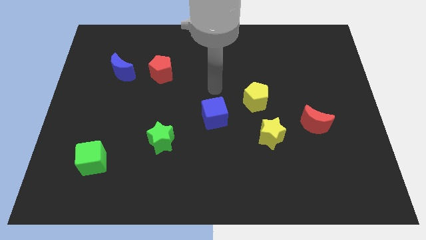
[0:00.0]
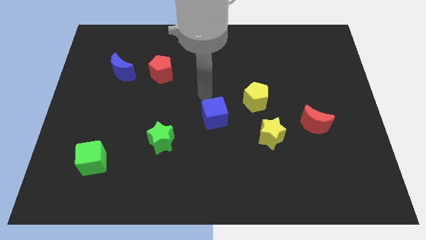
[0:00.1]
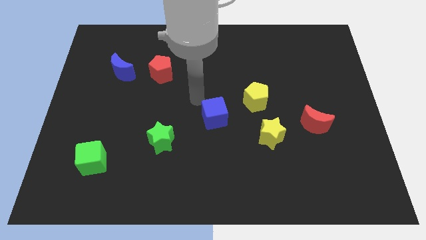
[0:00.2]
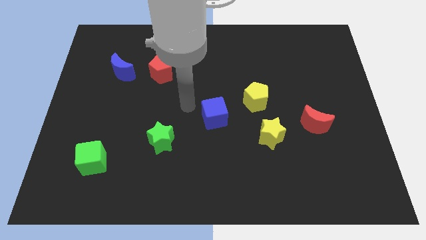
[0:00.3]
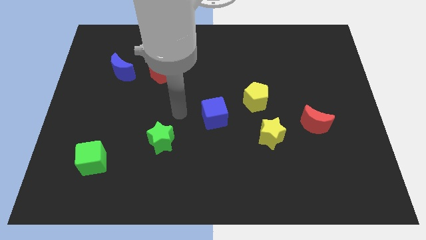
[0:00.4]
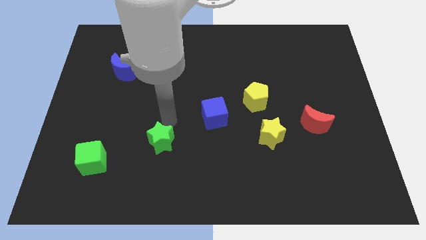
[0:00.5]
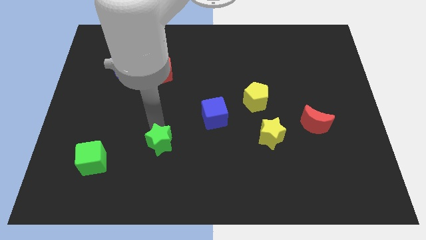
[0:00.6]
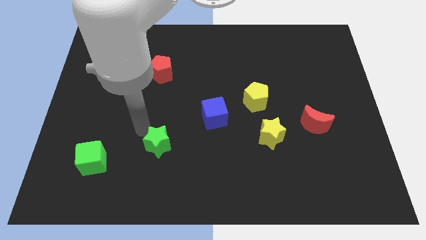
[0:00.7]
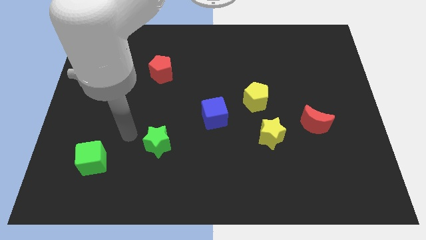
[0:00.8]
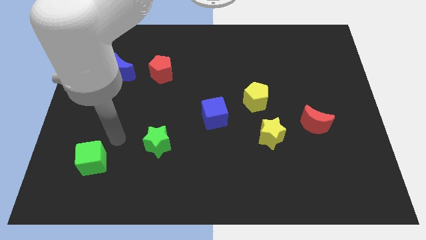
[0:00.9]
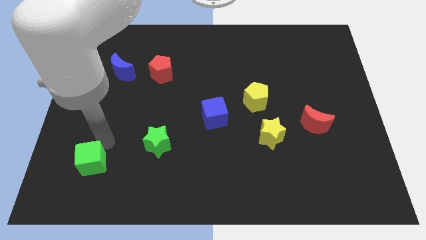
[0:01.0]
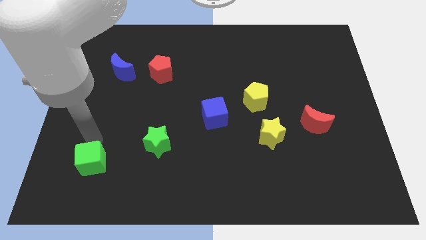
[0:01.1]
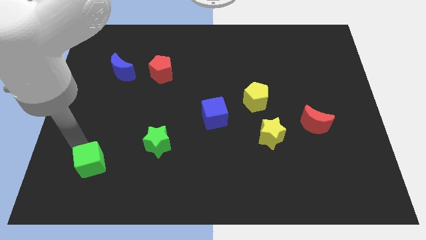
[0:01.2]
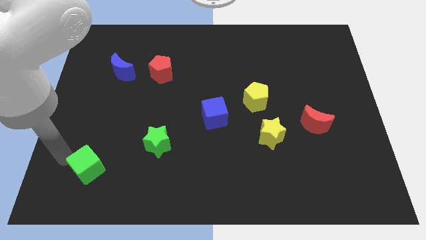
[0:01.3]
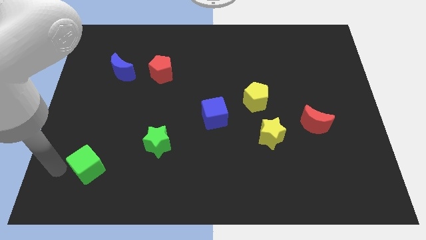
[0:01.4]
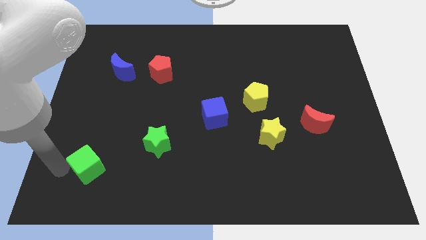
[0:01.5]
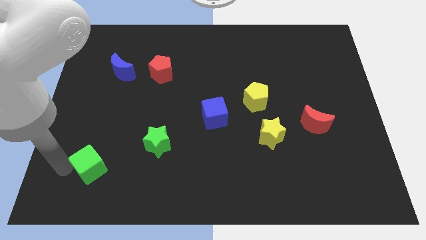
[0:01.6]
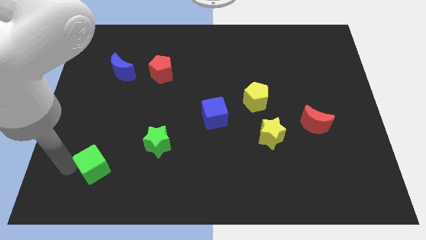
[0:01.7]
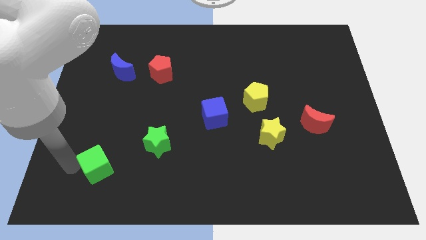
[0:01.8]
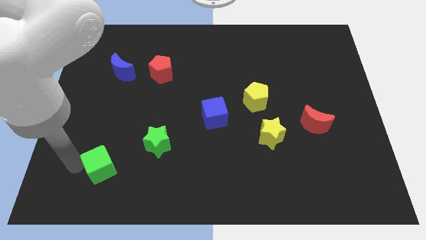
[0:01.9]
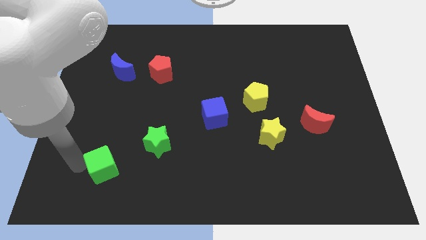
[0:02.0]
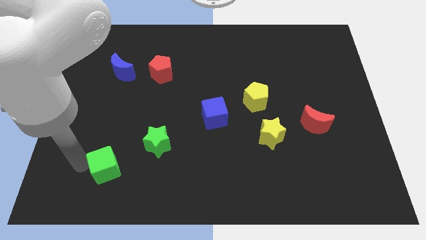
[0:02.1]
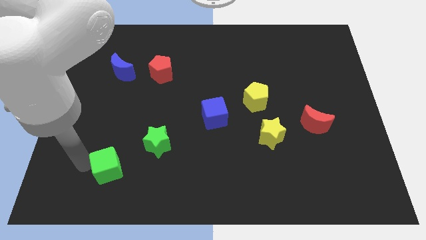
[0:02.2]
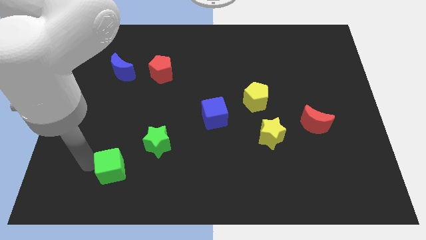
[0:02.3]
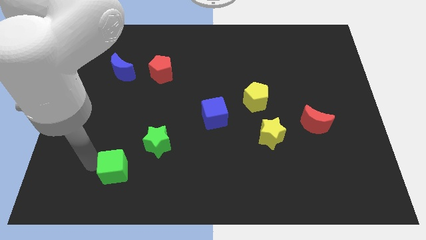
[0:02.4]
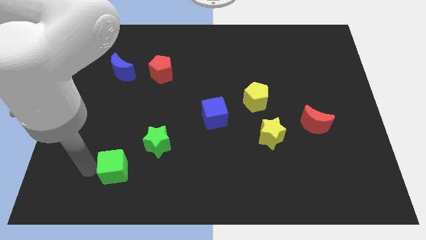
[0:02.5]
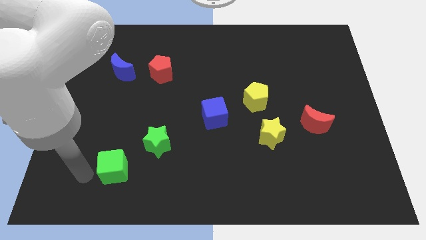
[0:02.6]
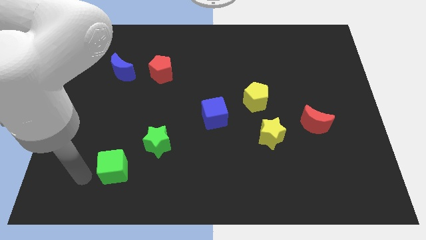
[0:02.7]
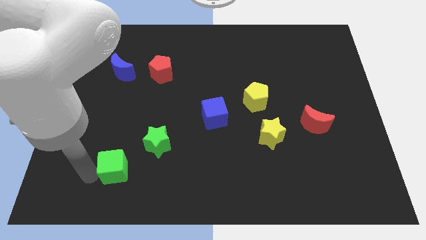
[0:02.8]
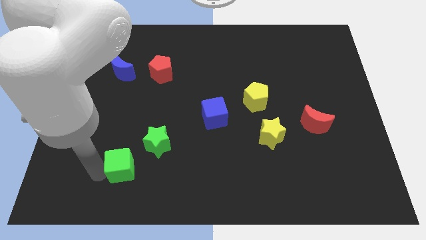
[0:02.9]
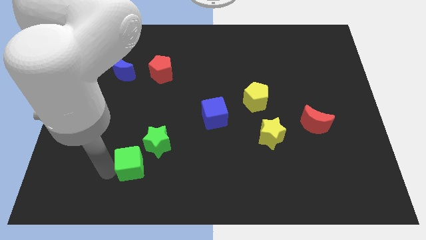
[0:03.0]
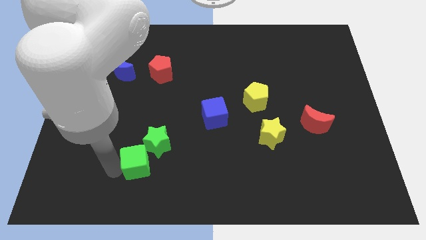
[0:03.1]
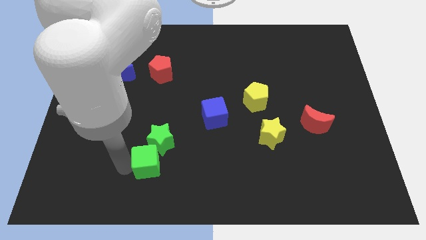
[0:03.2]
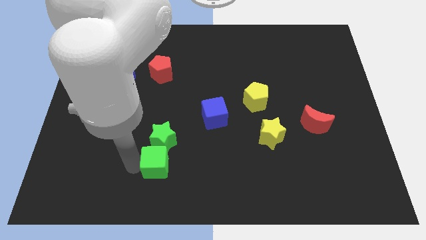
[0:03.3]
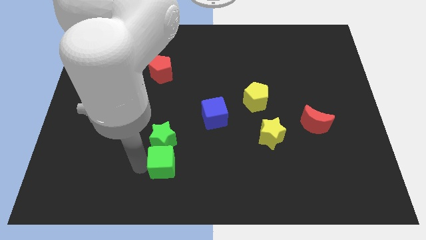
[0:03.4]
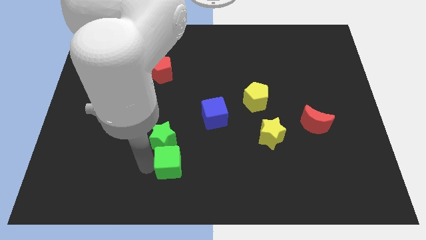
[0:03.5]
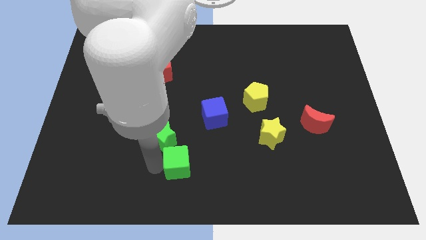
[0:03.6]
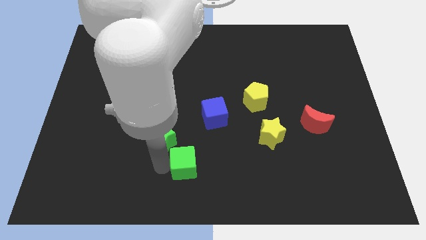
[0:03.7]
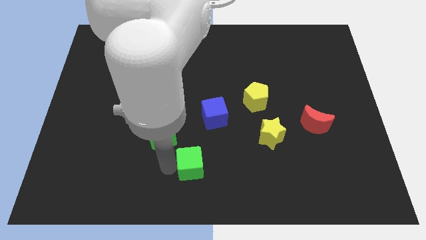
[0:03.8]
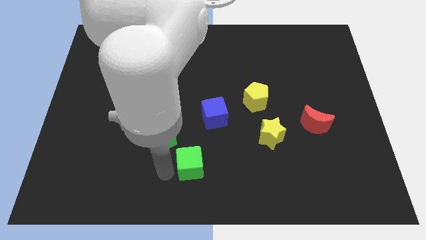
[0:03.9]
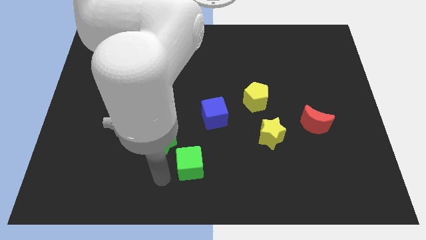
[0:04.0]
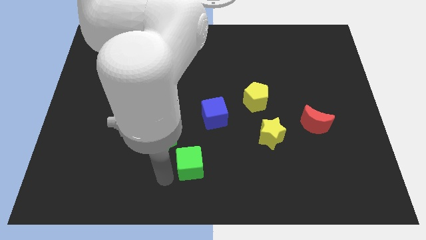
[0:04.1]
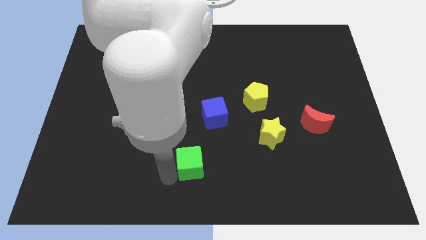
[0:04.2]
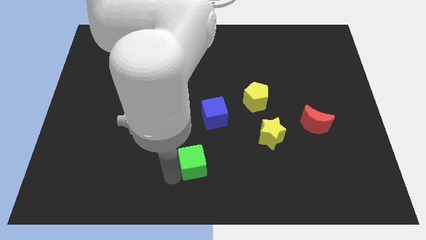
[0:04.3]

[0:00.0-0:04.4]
put the green cube to the bottom of the blue cube

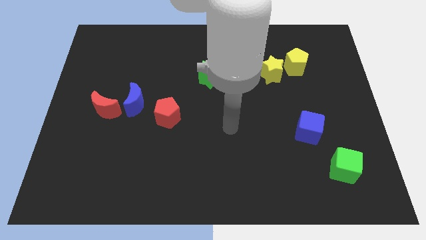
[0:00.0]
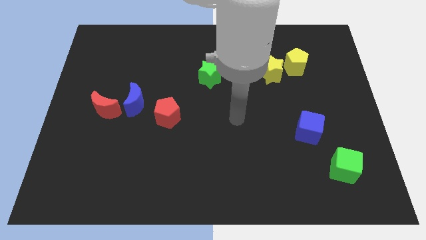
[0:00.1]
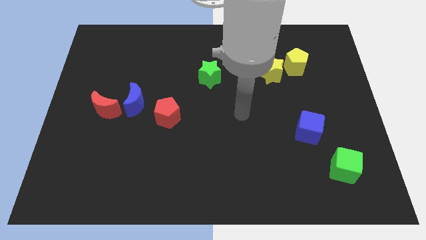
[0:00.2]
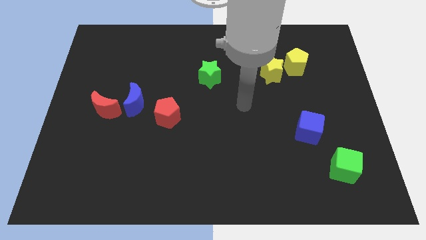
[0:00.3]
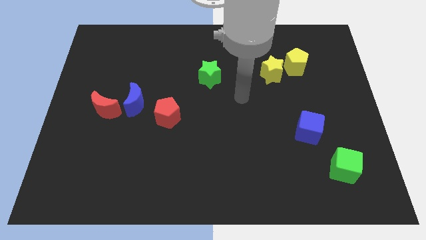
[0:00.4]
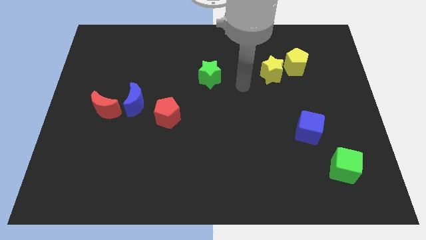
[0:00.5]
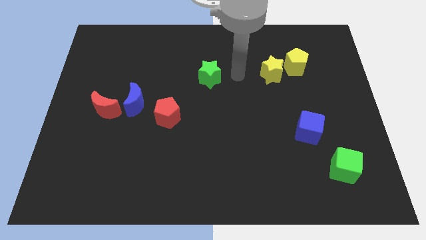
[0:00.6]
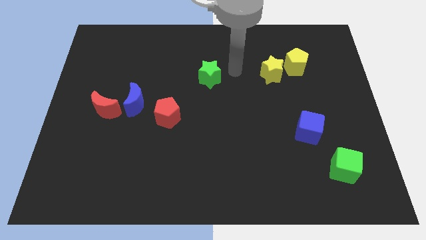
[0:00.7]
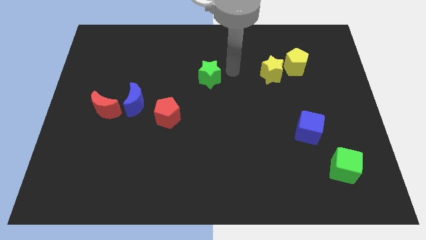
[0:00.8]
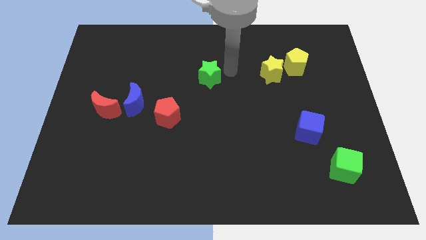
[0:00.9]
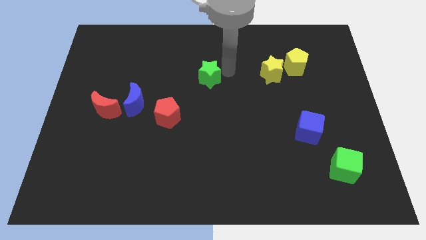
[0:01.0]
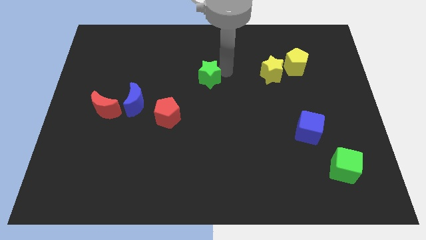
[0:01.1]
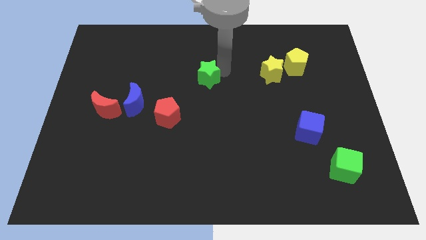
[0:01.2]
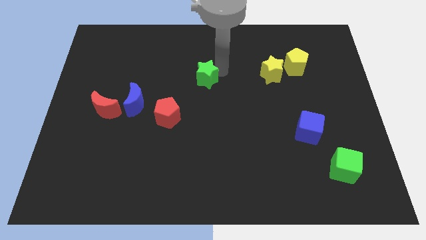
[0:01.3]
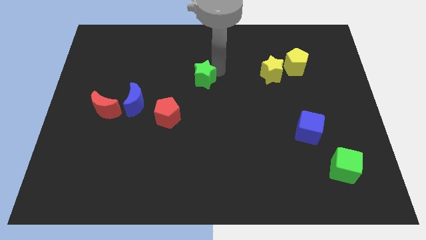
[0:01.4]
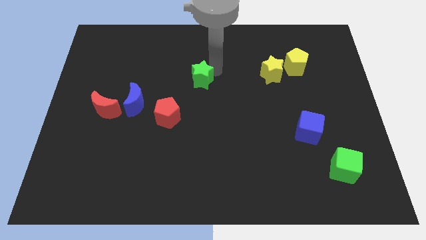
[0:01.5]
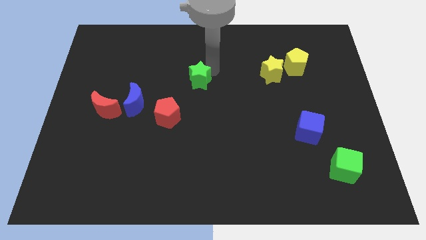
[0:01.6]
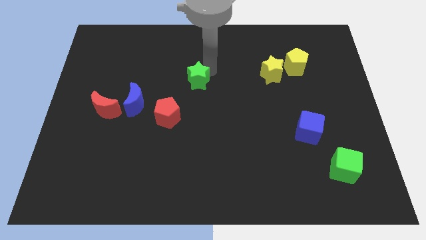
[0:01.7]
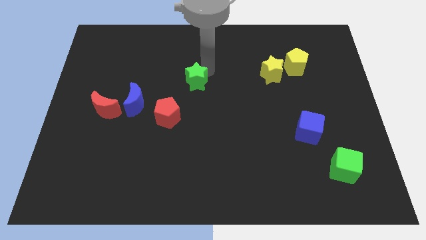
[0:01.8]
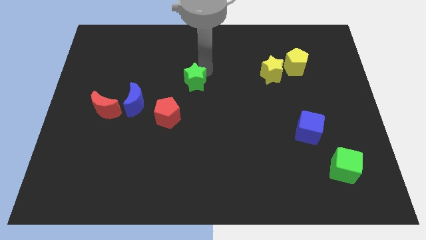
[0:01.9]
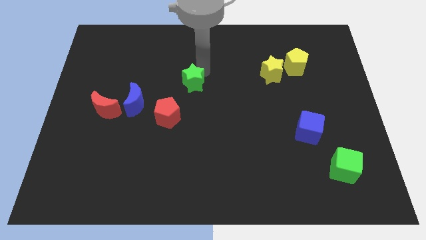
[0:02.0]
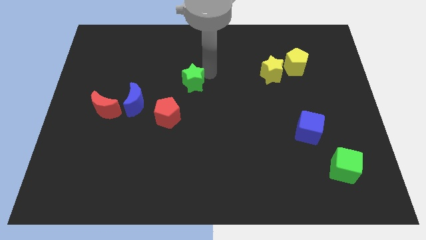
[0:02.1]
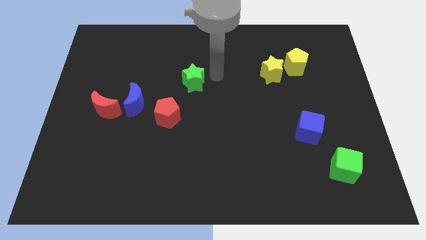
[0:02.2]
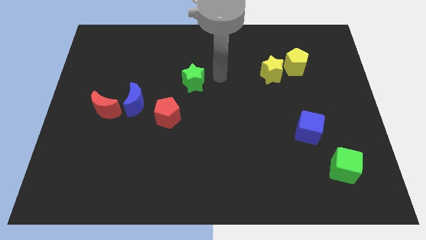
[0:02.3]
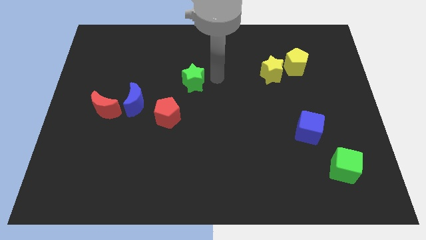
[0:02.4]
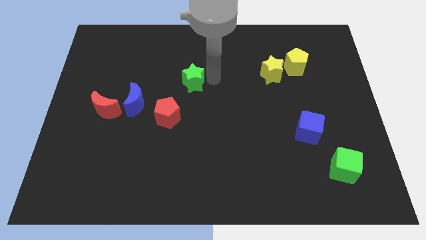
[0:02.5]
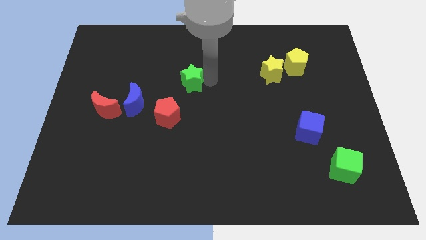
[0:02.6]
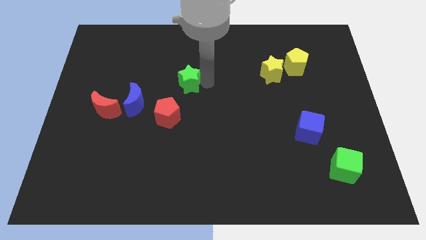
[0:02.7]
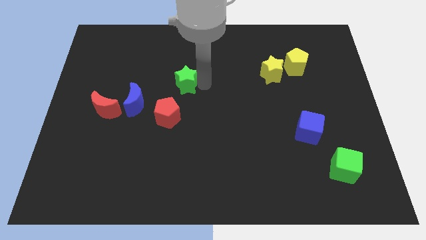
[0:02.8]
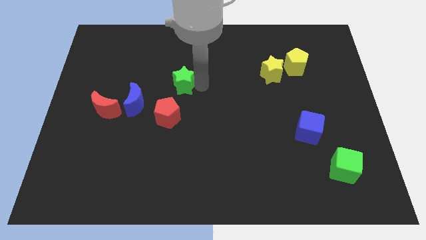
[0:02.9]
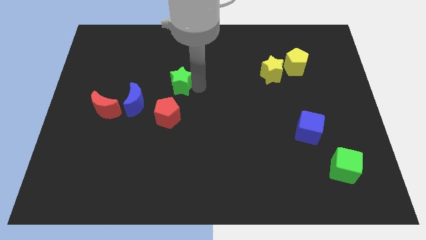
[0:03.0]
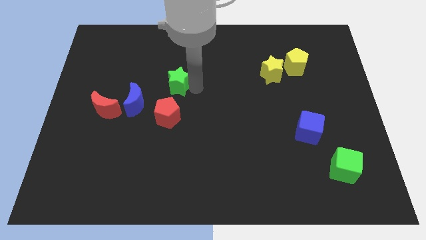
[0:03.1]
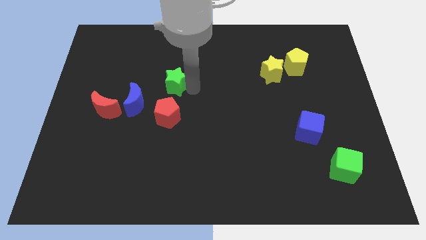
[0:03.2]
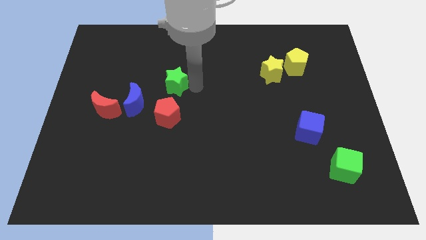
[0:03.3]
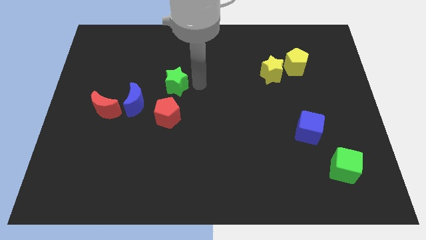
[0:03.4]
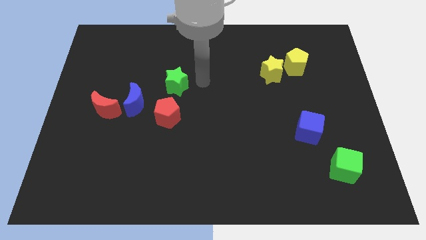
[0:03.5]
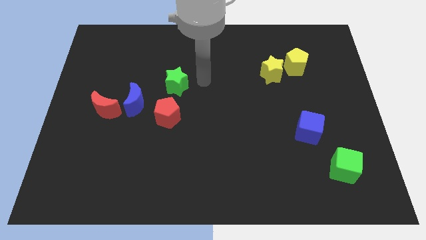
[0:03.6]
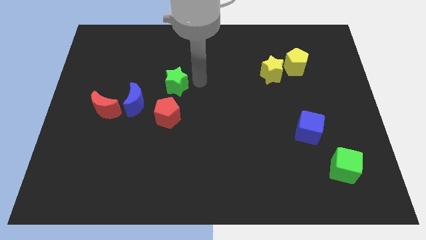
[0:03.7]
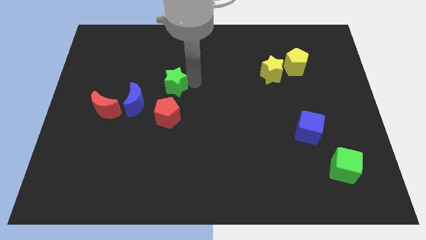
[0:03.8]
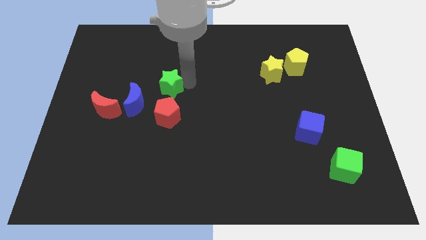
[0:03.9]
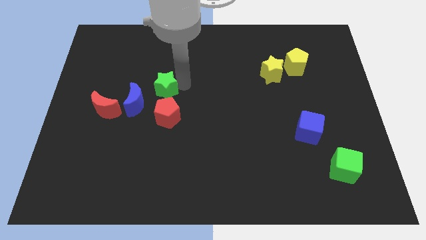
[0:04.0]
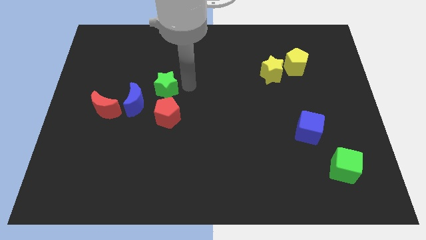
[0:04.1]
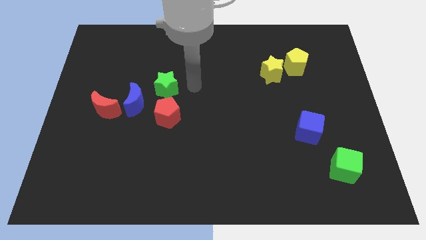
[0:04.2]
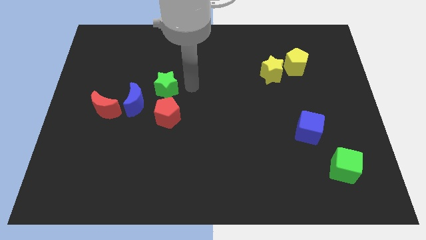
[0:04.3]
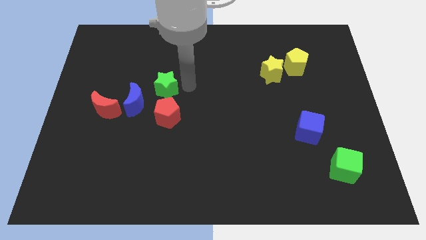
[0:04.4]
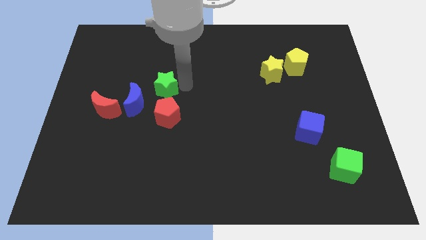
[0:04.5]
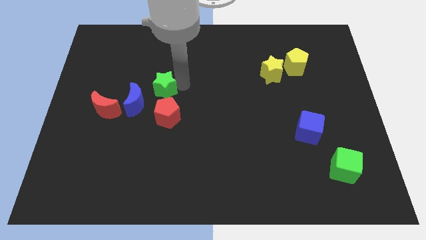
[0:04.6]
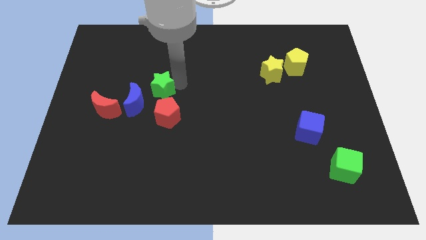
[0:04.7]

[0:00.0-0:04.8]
slide the green star to the top left side of the red pentagon
